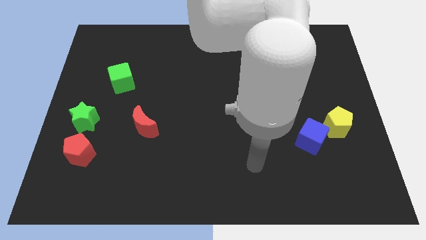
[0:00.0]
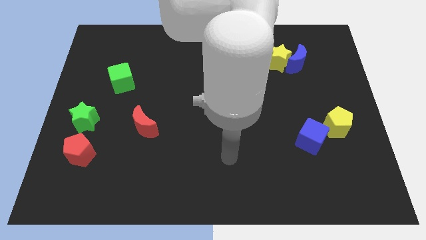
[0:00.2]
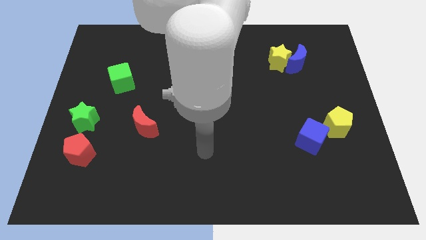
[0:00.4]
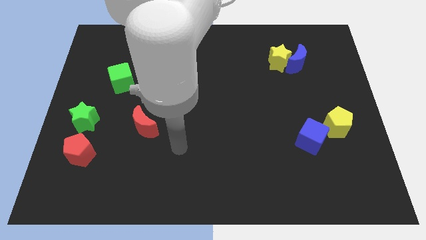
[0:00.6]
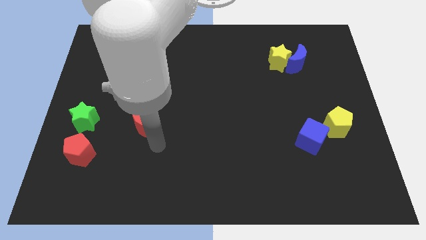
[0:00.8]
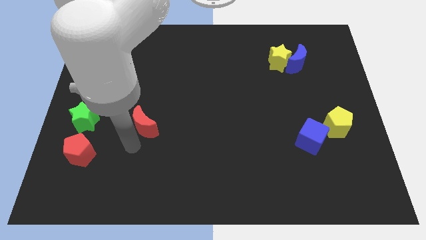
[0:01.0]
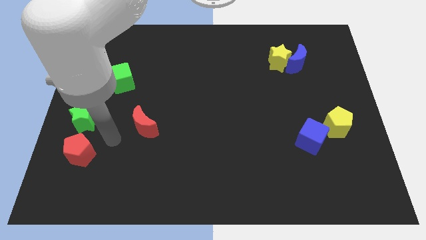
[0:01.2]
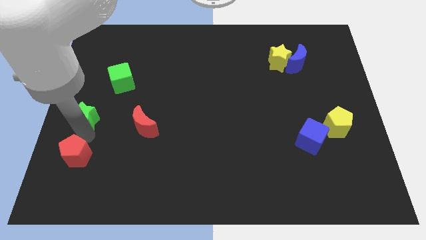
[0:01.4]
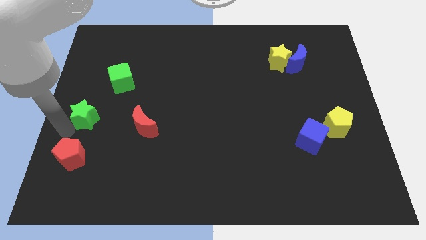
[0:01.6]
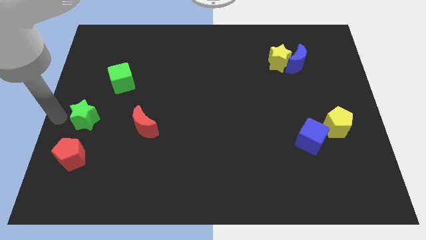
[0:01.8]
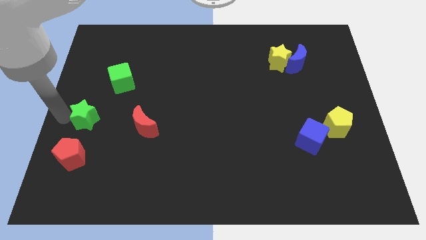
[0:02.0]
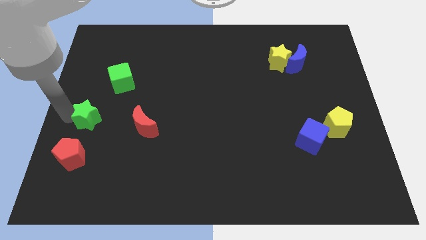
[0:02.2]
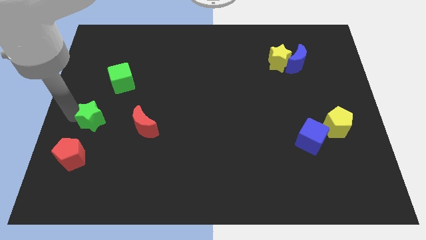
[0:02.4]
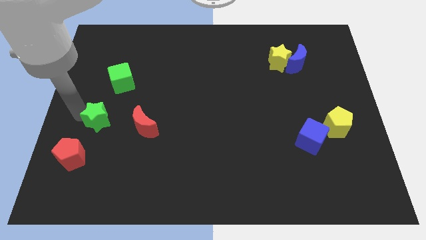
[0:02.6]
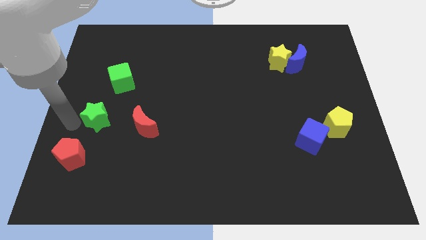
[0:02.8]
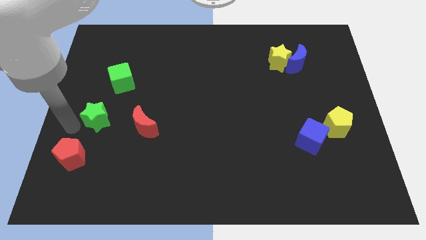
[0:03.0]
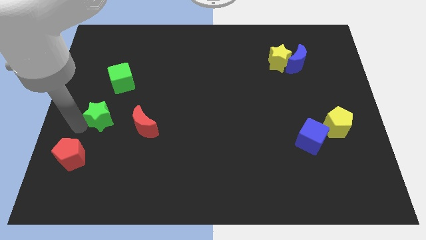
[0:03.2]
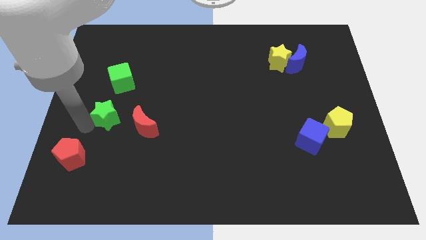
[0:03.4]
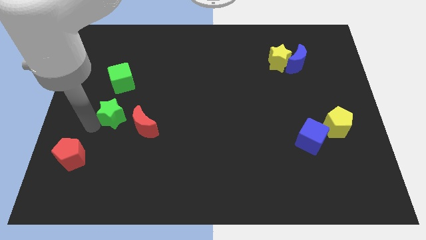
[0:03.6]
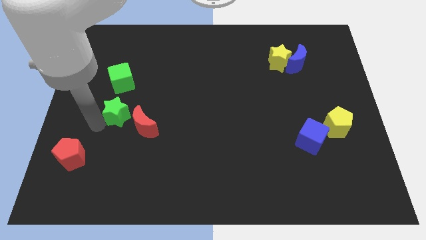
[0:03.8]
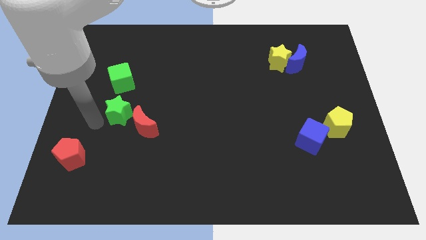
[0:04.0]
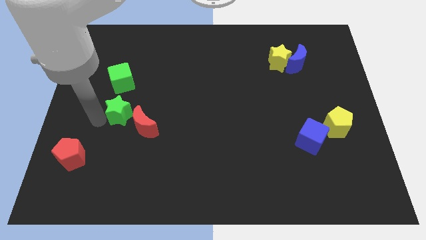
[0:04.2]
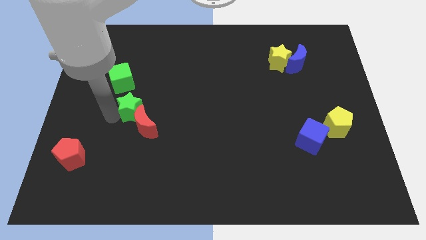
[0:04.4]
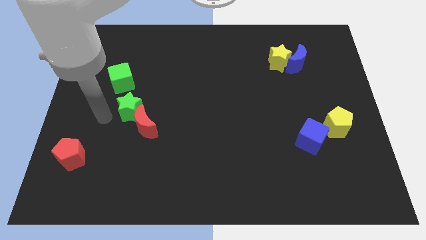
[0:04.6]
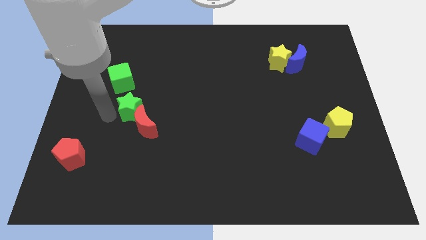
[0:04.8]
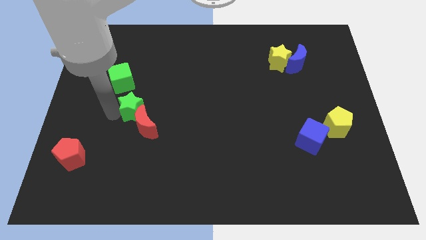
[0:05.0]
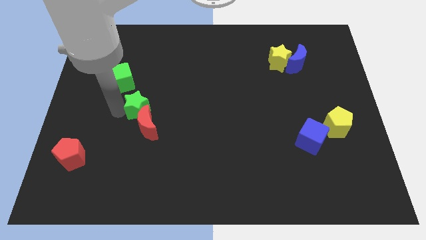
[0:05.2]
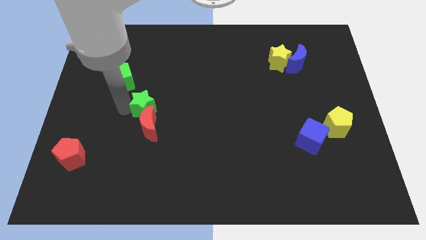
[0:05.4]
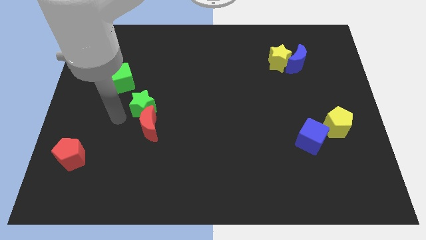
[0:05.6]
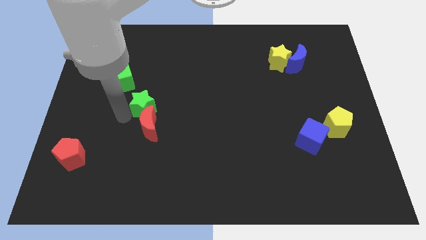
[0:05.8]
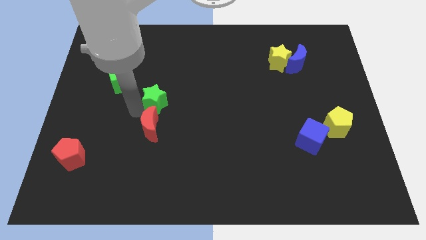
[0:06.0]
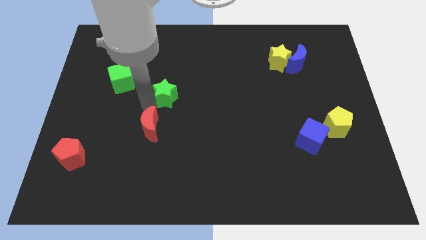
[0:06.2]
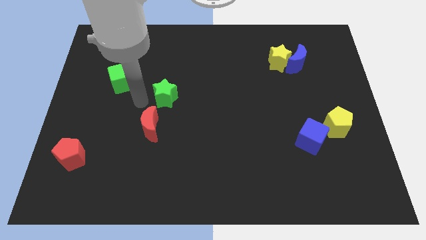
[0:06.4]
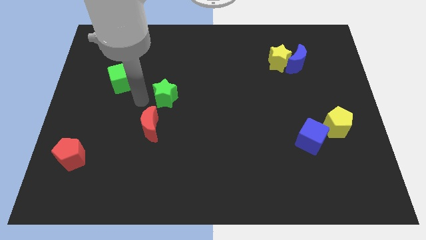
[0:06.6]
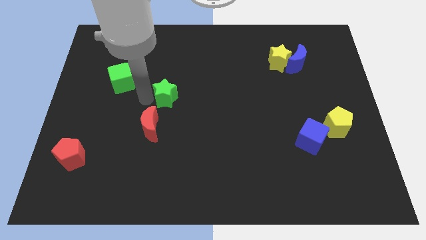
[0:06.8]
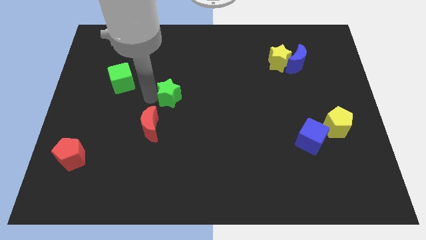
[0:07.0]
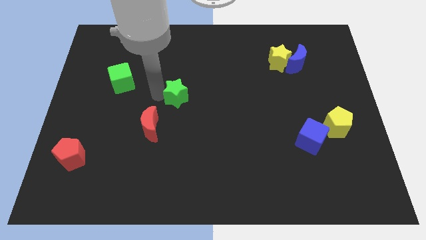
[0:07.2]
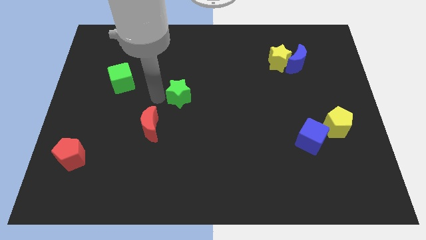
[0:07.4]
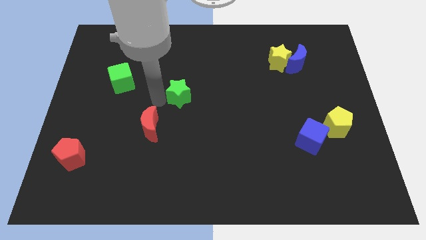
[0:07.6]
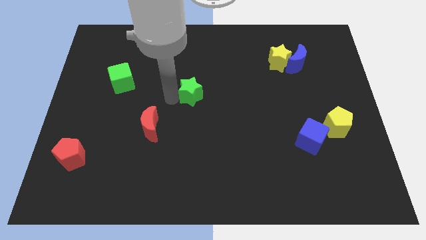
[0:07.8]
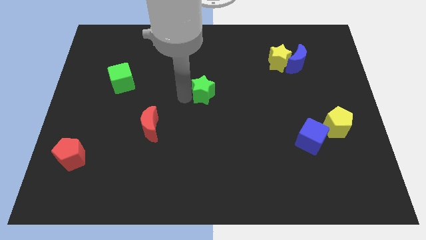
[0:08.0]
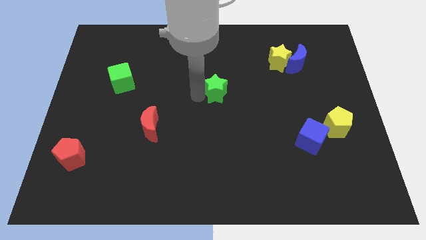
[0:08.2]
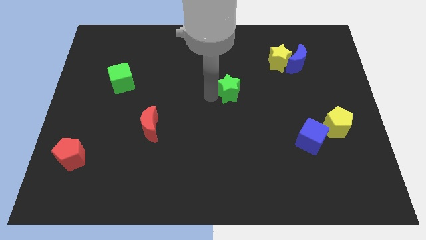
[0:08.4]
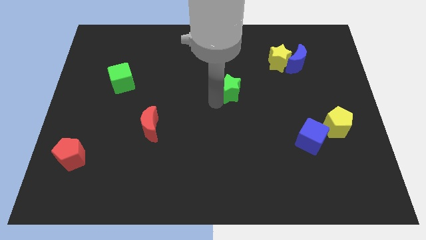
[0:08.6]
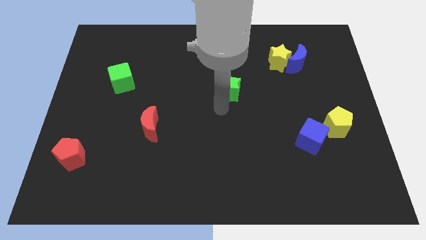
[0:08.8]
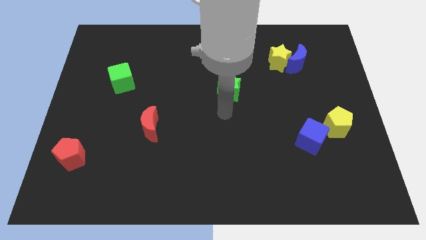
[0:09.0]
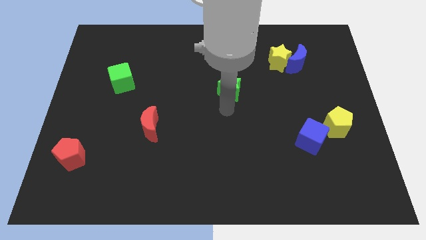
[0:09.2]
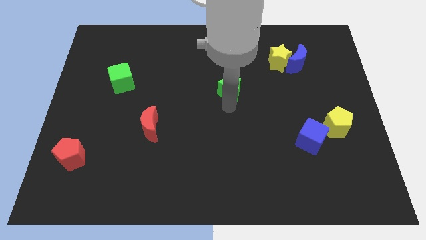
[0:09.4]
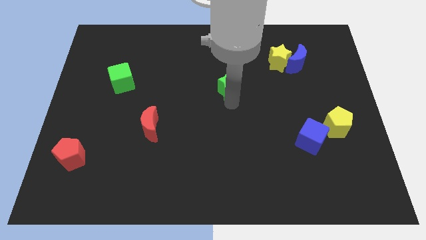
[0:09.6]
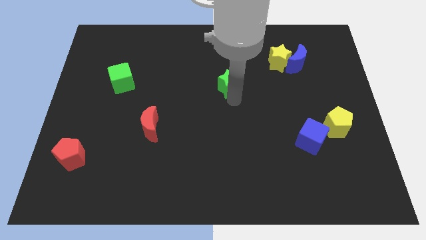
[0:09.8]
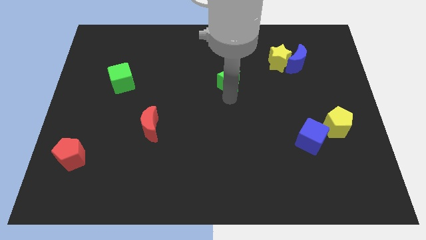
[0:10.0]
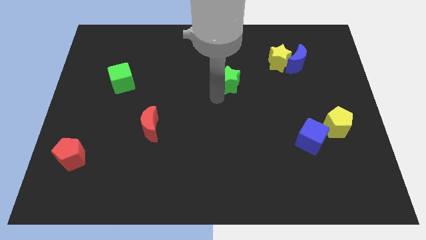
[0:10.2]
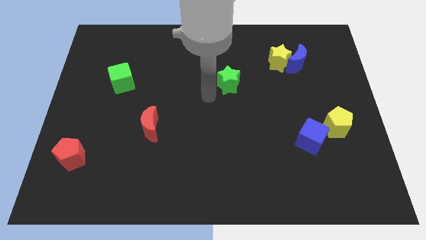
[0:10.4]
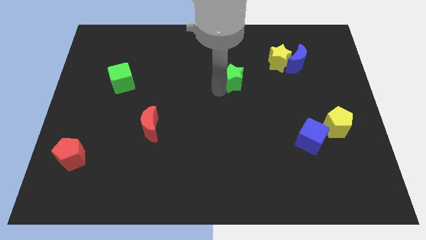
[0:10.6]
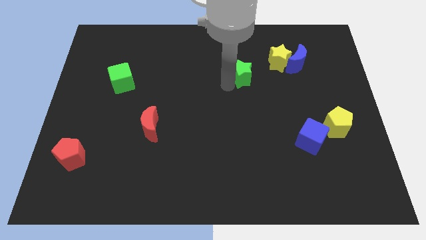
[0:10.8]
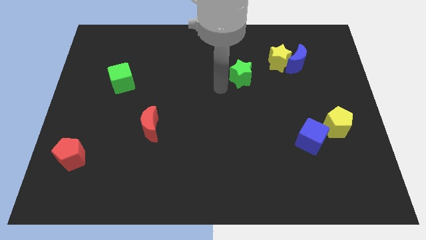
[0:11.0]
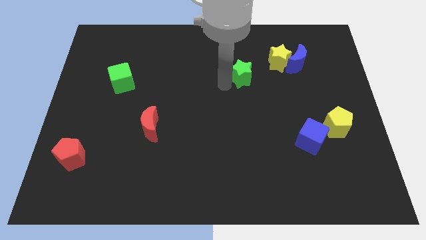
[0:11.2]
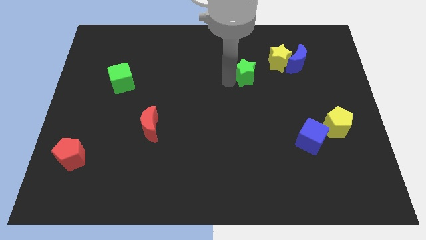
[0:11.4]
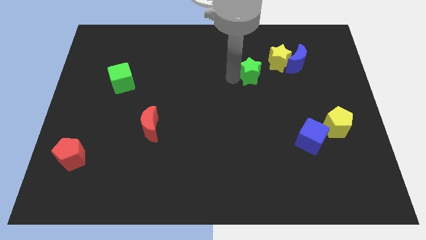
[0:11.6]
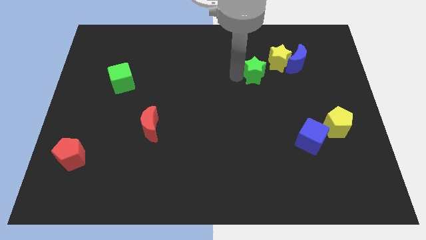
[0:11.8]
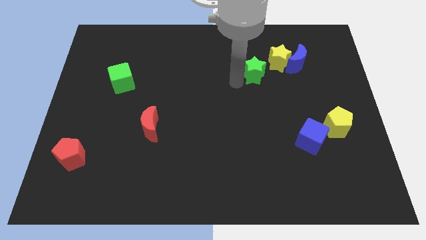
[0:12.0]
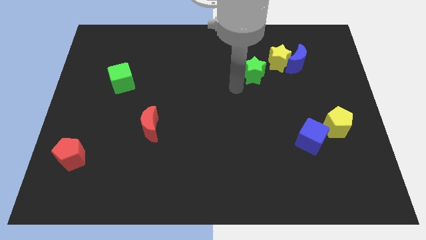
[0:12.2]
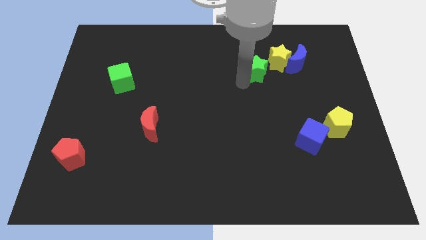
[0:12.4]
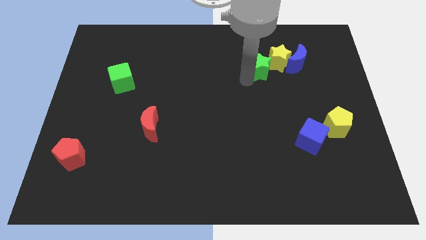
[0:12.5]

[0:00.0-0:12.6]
move the green star towards the yellow star

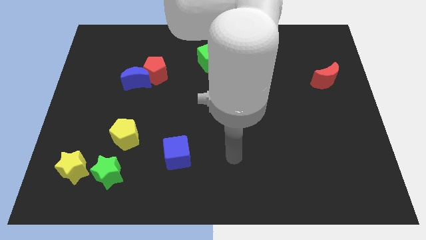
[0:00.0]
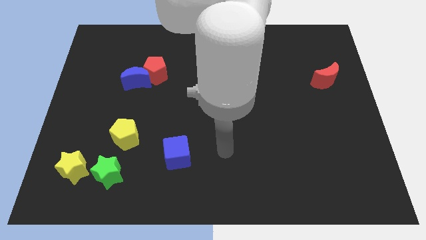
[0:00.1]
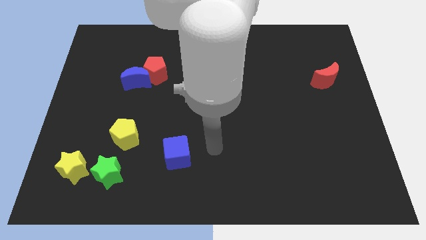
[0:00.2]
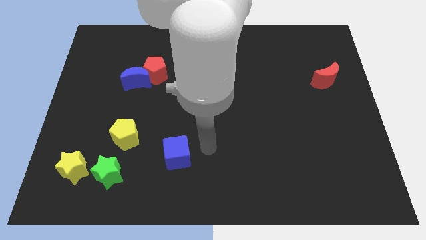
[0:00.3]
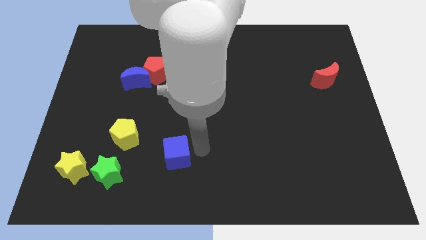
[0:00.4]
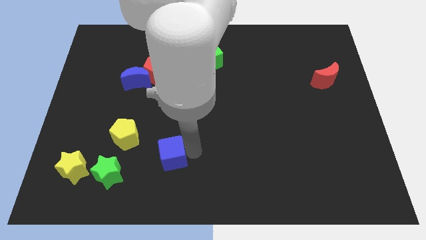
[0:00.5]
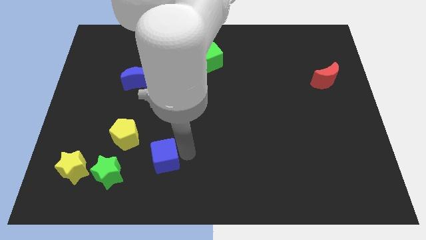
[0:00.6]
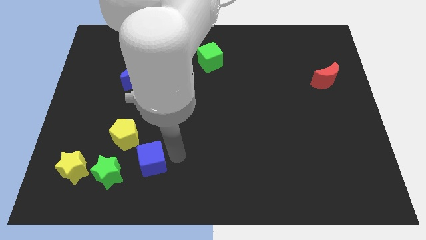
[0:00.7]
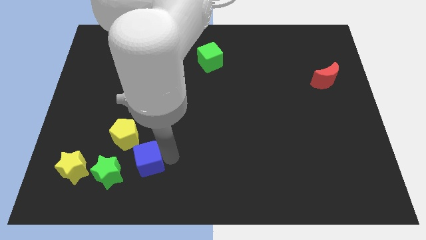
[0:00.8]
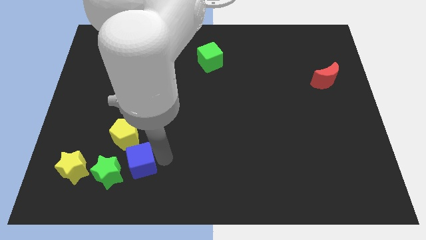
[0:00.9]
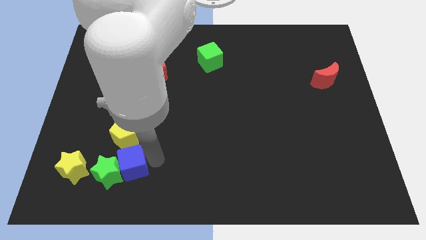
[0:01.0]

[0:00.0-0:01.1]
move the blue cube towards the green star
